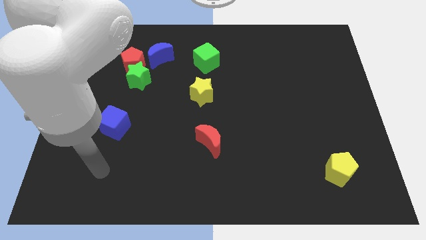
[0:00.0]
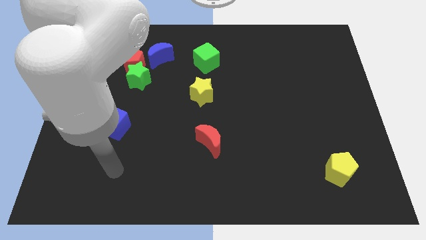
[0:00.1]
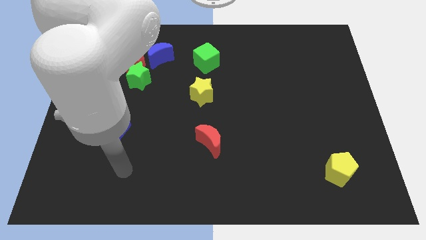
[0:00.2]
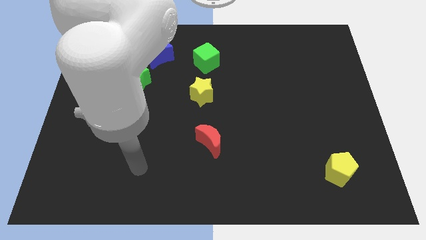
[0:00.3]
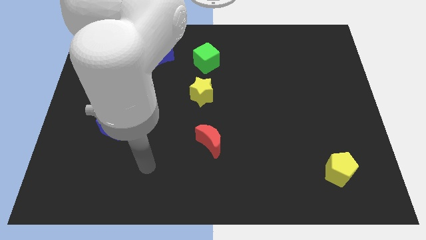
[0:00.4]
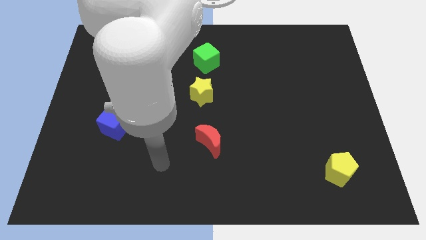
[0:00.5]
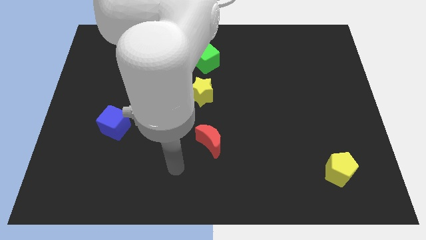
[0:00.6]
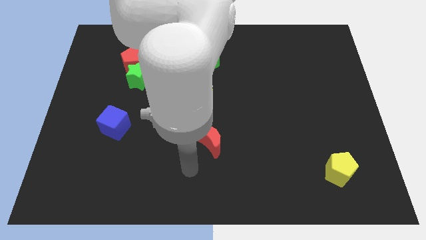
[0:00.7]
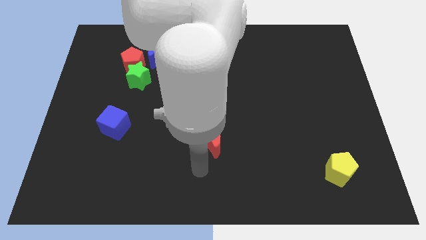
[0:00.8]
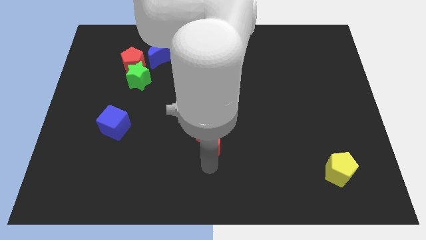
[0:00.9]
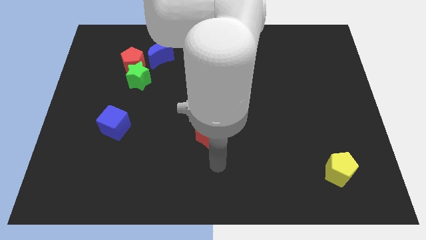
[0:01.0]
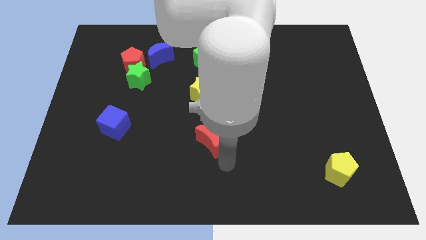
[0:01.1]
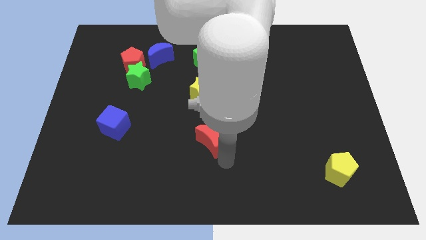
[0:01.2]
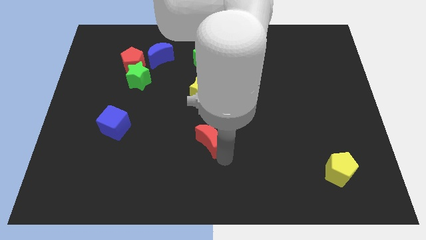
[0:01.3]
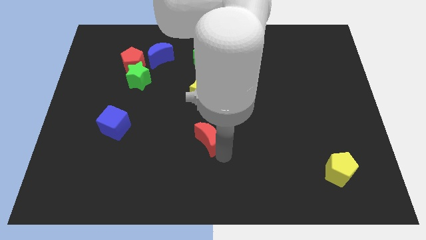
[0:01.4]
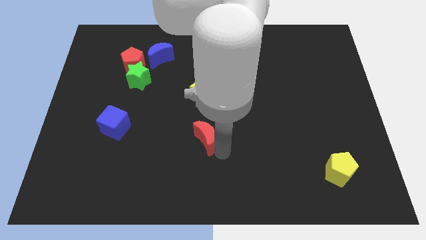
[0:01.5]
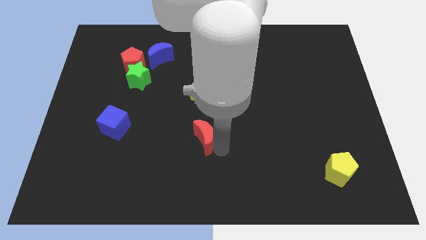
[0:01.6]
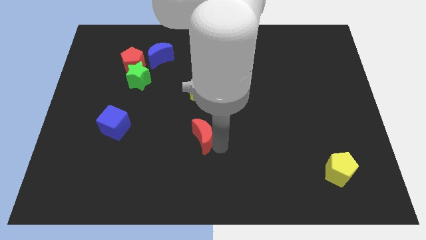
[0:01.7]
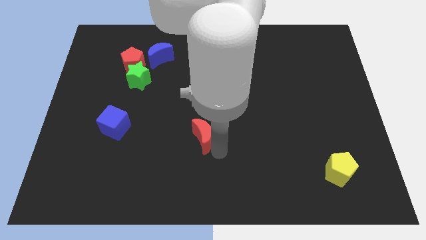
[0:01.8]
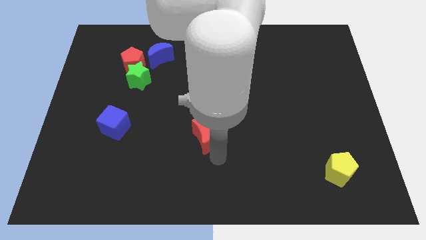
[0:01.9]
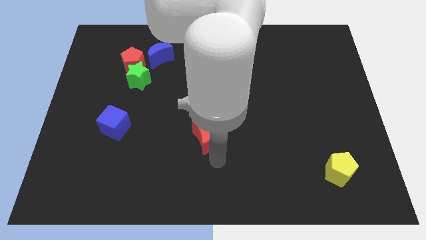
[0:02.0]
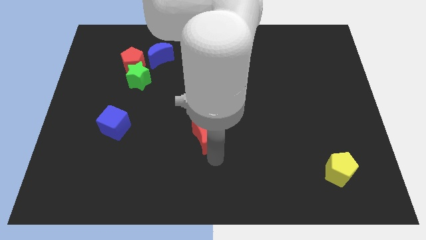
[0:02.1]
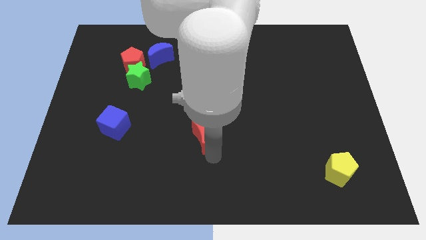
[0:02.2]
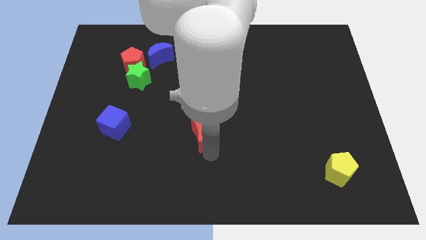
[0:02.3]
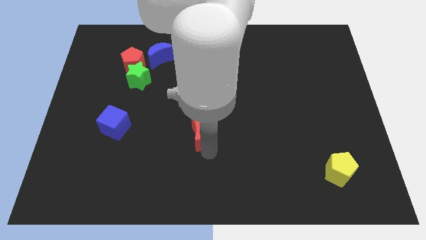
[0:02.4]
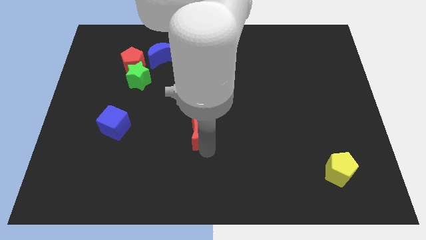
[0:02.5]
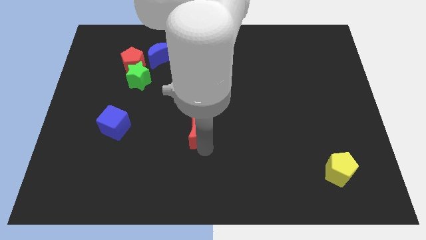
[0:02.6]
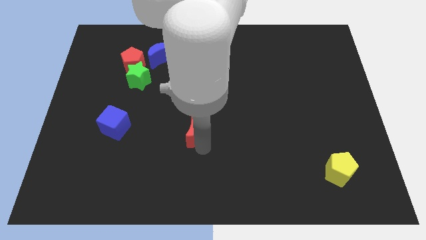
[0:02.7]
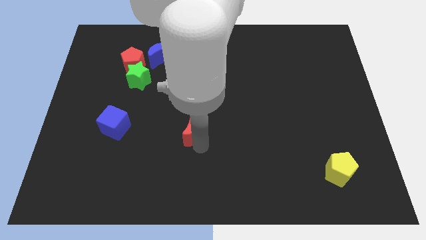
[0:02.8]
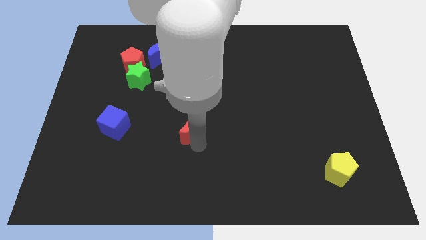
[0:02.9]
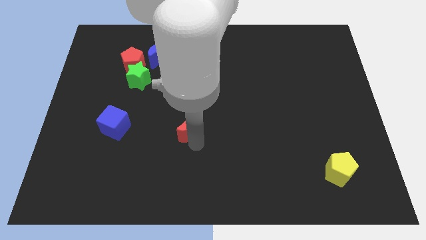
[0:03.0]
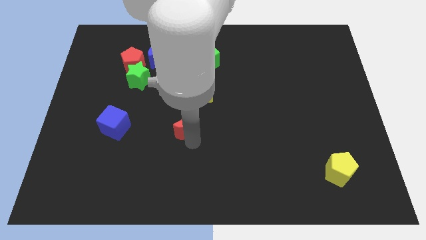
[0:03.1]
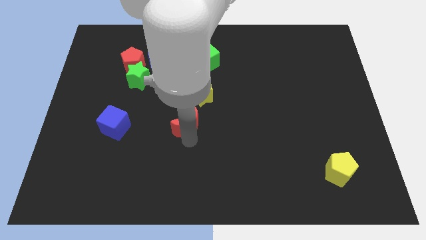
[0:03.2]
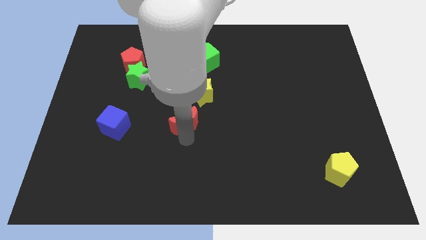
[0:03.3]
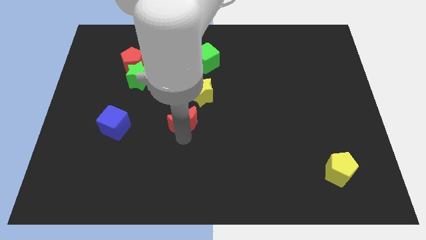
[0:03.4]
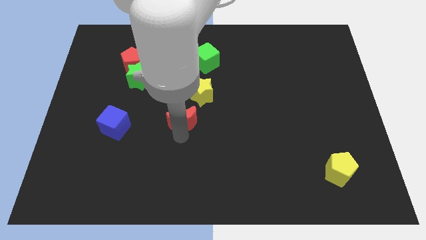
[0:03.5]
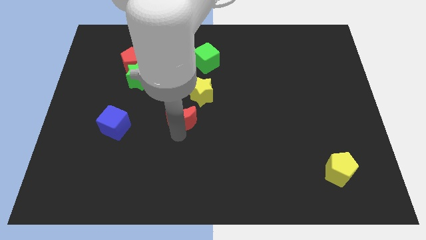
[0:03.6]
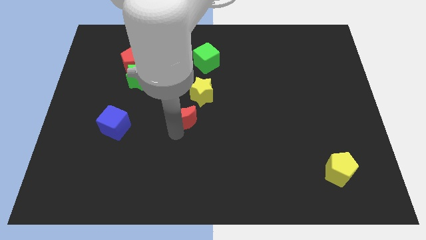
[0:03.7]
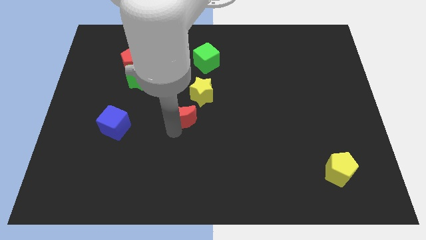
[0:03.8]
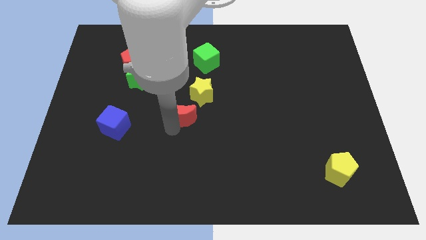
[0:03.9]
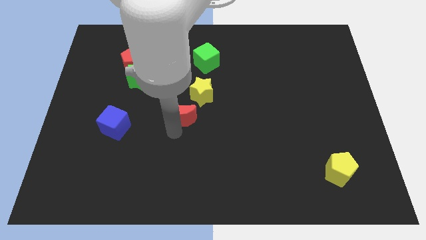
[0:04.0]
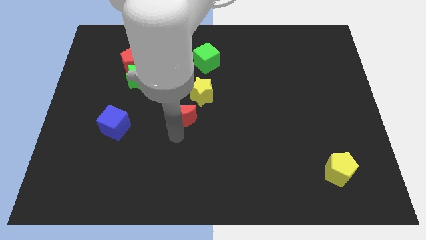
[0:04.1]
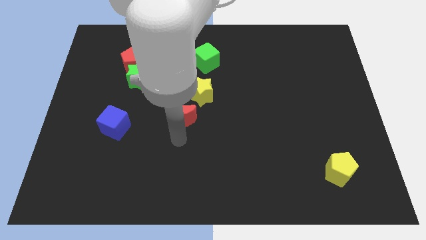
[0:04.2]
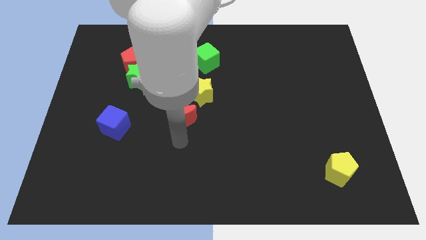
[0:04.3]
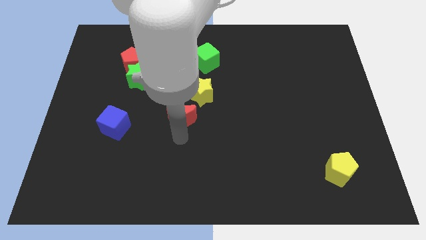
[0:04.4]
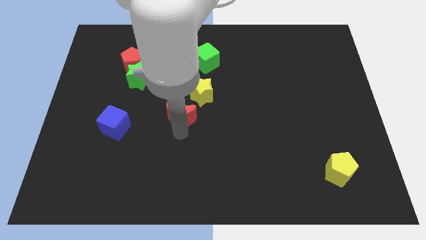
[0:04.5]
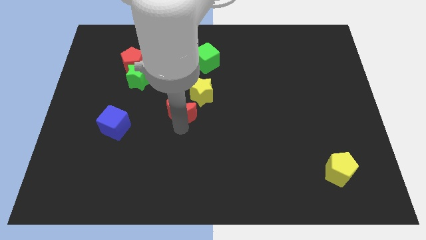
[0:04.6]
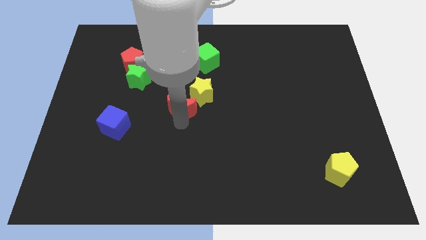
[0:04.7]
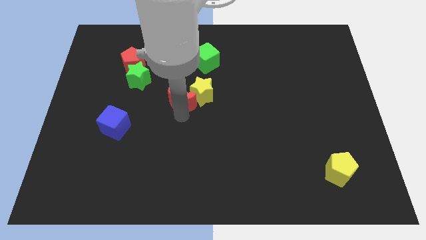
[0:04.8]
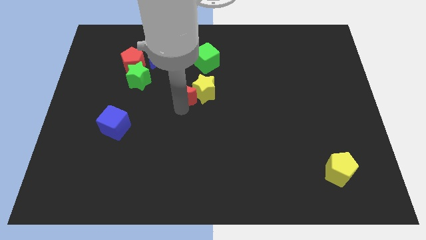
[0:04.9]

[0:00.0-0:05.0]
move the red moon diagonally up and to the left of the yellow star

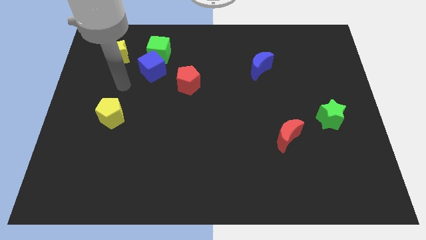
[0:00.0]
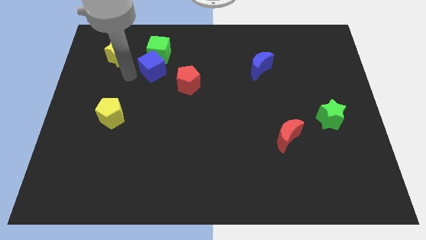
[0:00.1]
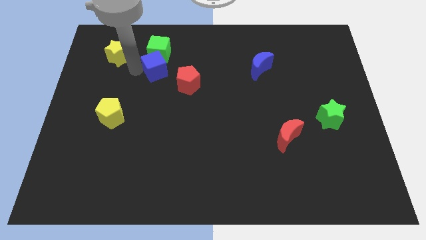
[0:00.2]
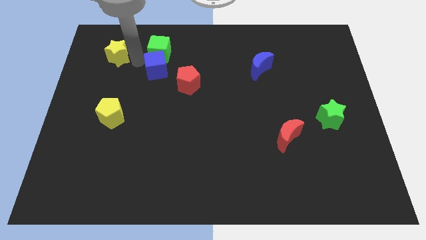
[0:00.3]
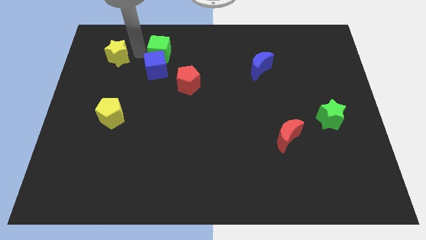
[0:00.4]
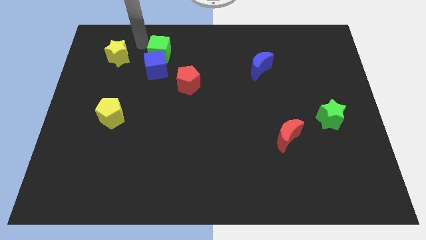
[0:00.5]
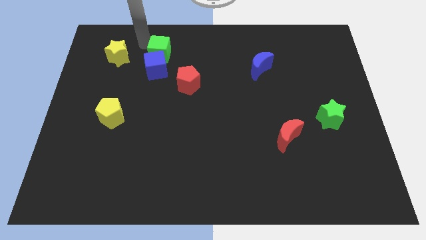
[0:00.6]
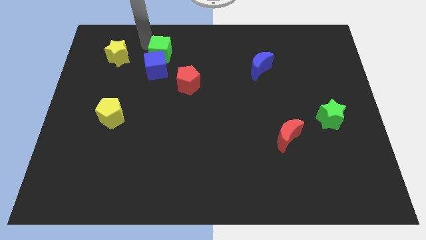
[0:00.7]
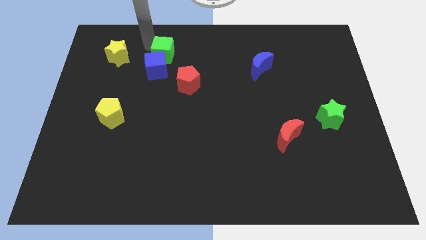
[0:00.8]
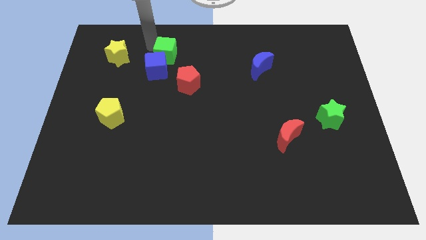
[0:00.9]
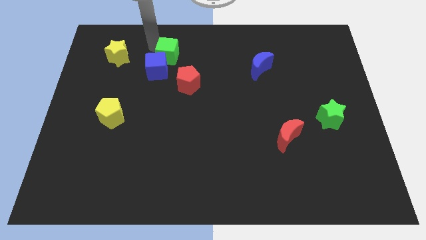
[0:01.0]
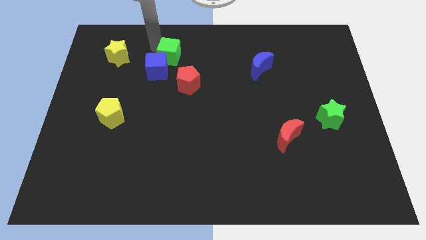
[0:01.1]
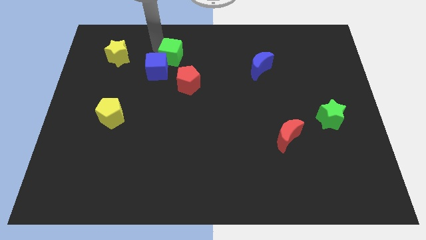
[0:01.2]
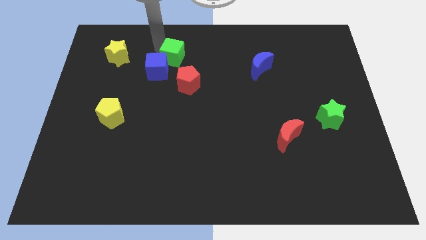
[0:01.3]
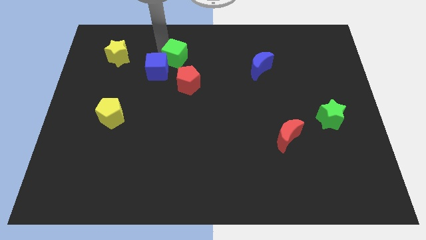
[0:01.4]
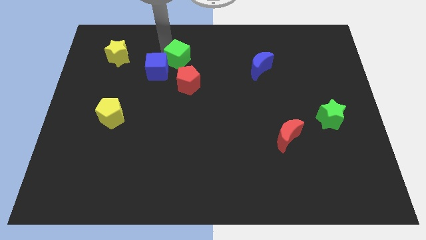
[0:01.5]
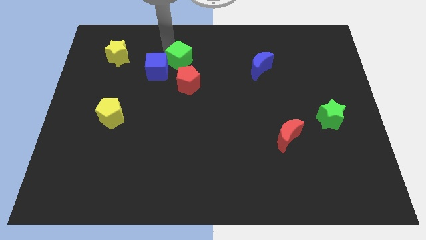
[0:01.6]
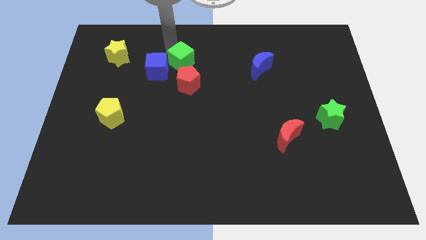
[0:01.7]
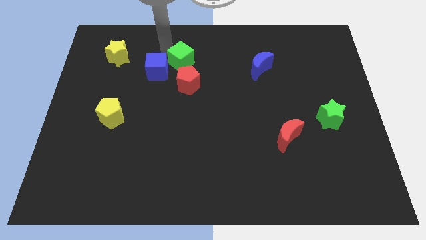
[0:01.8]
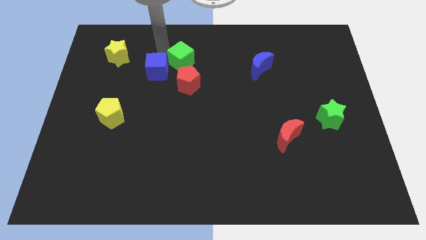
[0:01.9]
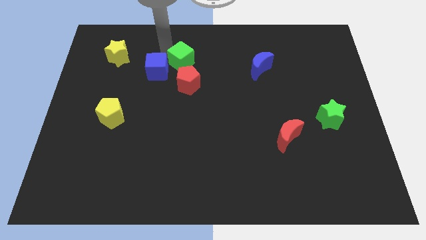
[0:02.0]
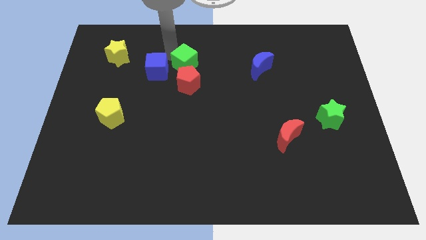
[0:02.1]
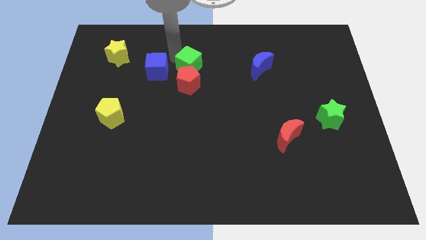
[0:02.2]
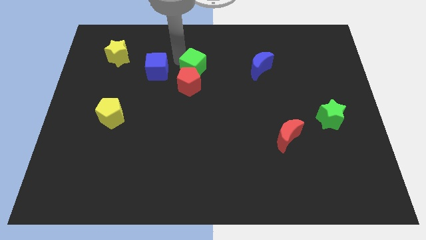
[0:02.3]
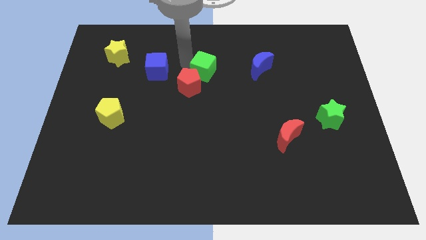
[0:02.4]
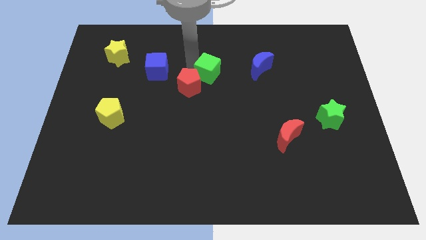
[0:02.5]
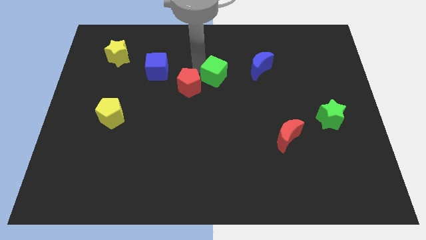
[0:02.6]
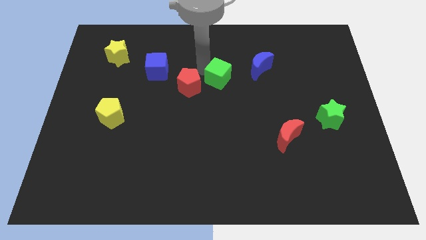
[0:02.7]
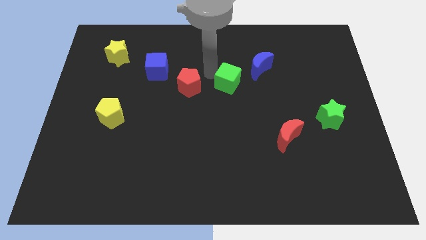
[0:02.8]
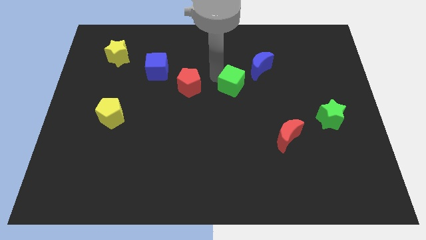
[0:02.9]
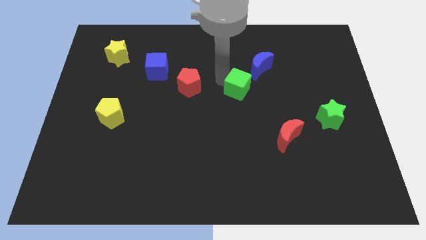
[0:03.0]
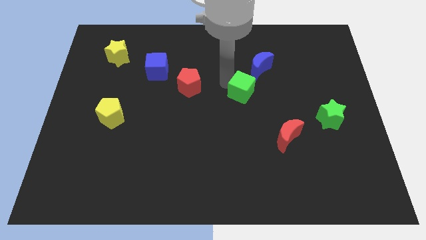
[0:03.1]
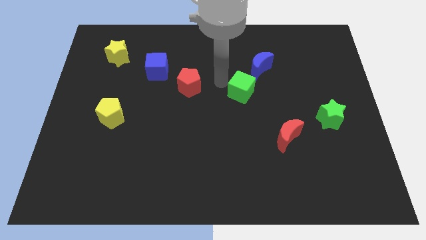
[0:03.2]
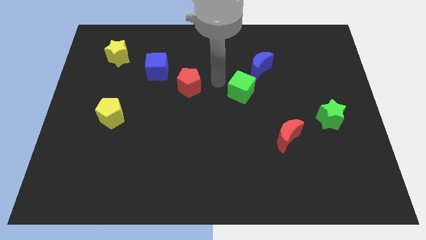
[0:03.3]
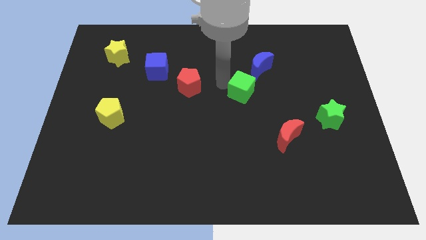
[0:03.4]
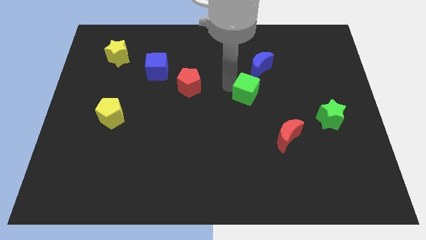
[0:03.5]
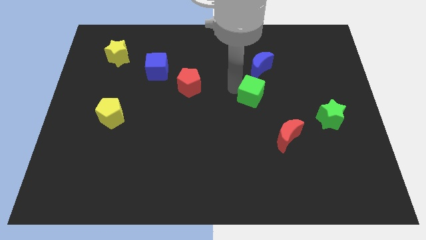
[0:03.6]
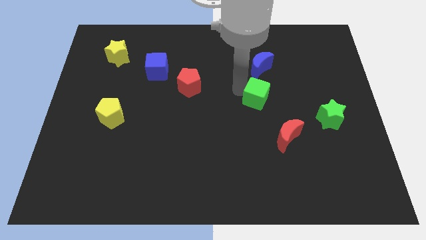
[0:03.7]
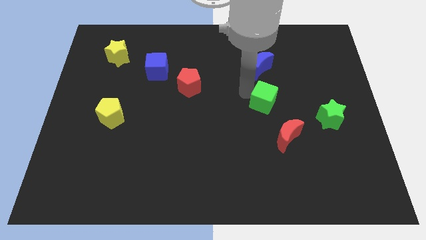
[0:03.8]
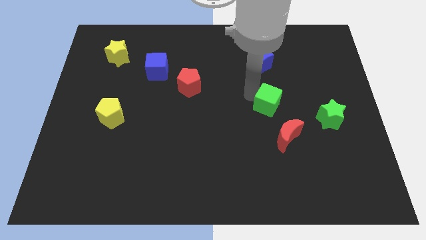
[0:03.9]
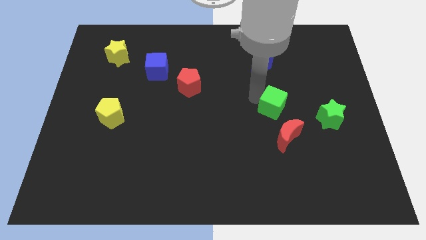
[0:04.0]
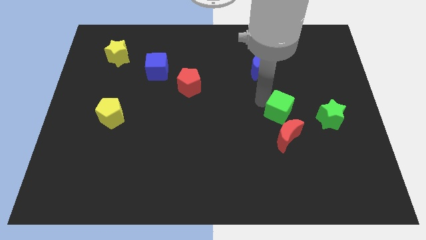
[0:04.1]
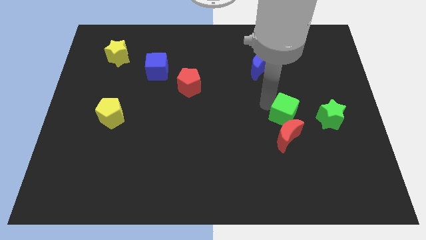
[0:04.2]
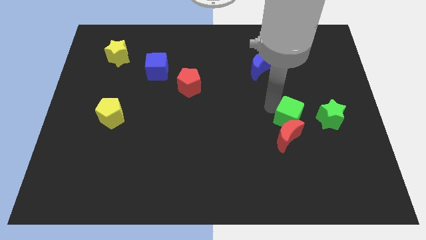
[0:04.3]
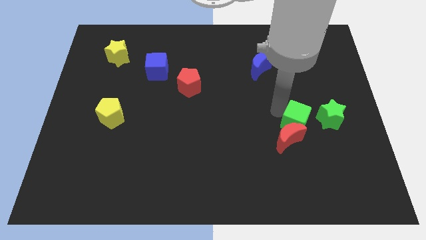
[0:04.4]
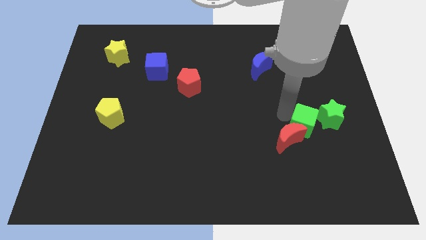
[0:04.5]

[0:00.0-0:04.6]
slide the green cube to the right side of the red moon
